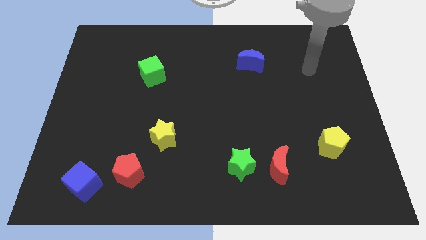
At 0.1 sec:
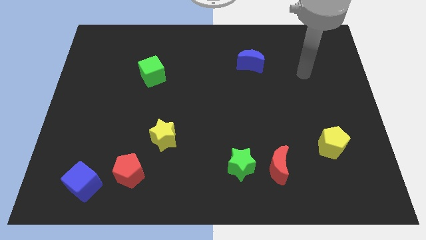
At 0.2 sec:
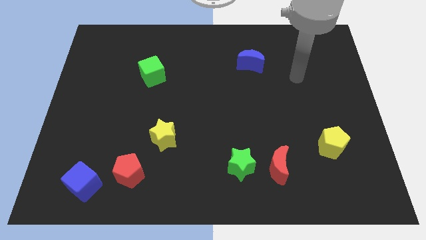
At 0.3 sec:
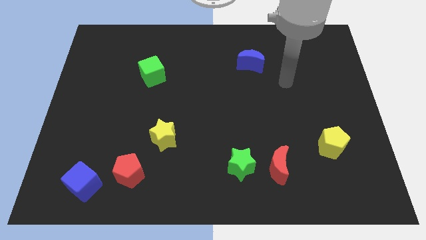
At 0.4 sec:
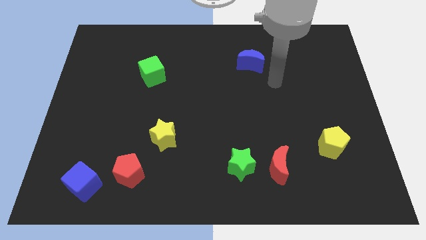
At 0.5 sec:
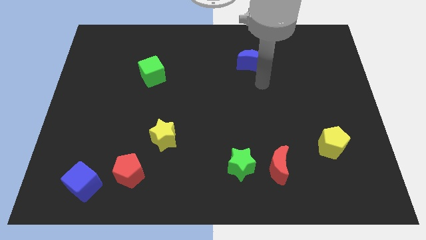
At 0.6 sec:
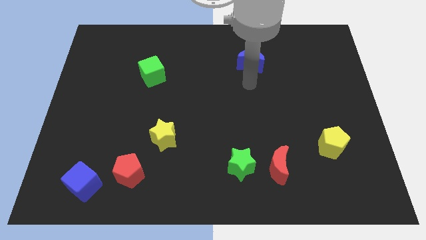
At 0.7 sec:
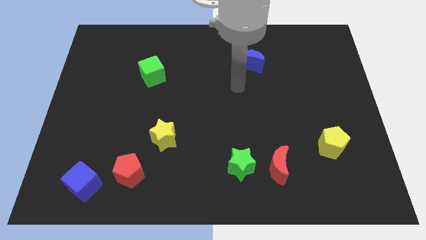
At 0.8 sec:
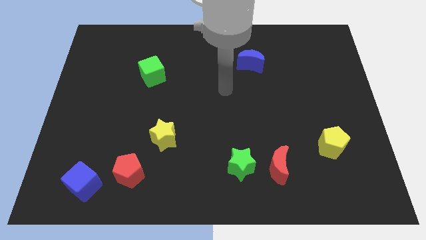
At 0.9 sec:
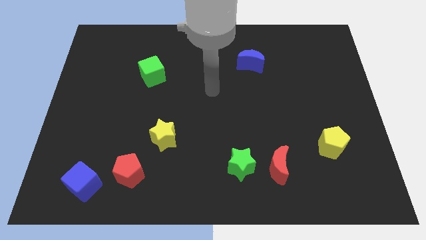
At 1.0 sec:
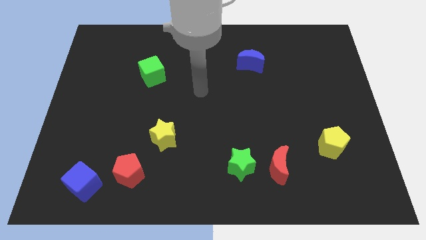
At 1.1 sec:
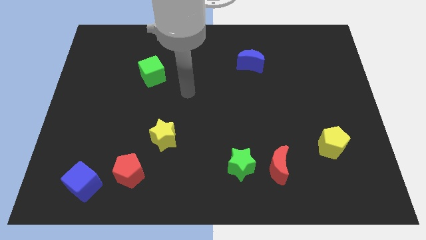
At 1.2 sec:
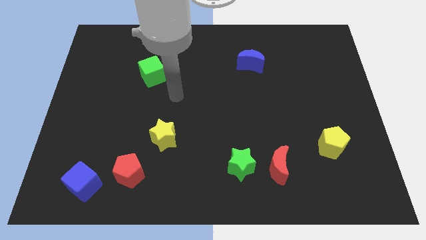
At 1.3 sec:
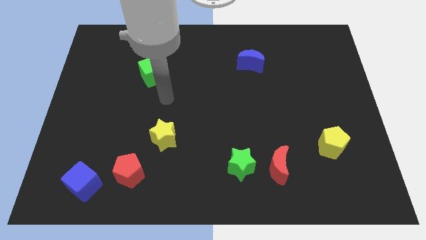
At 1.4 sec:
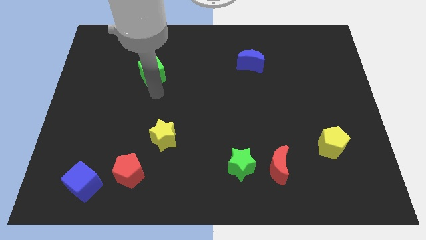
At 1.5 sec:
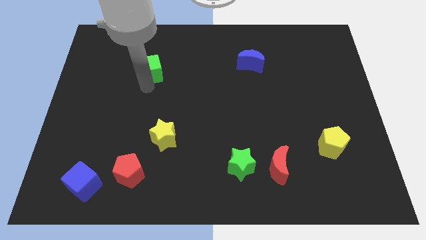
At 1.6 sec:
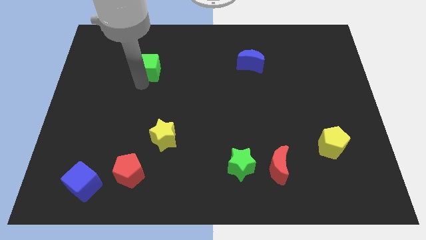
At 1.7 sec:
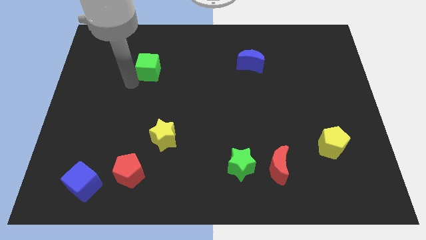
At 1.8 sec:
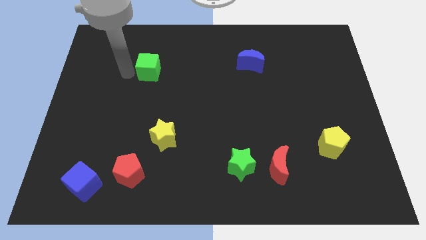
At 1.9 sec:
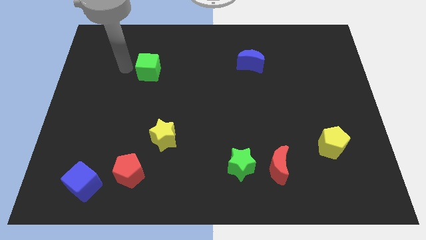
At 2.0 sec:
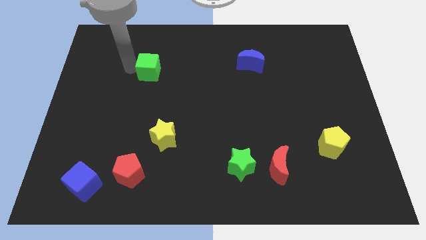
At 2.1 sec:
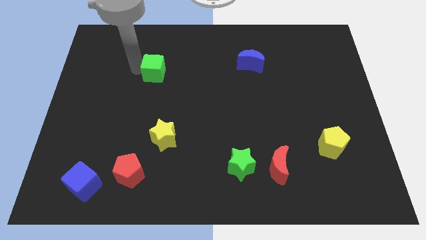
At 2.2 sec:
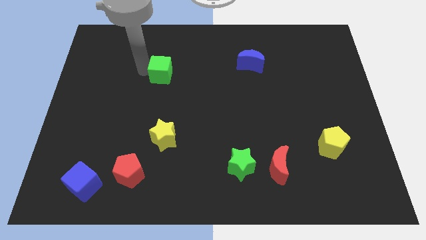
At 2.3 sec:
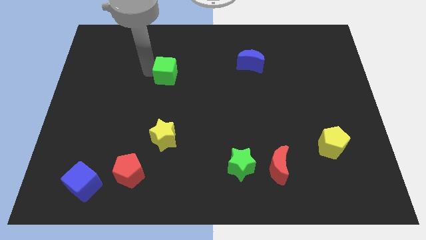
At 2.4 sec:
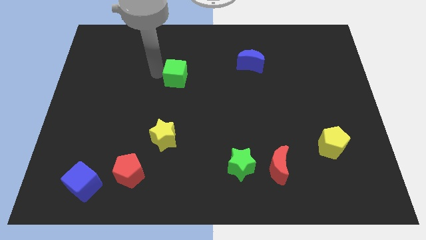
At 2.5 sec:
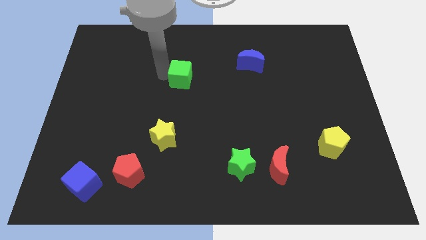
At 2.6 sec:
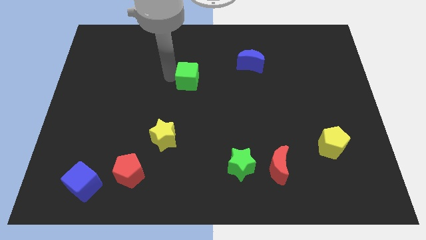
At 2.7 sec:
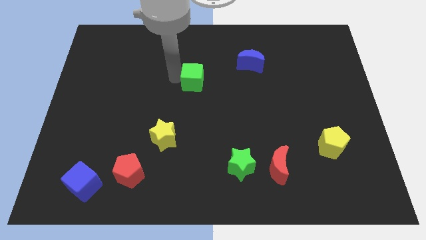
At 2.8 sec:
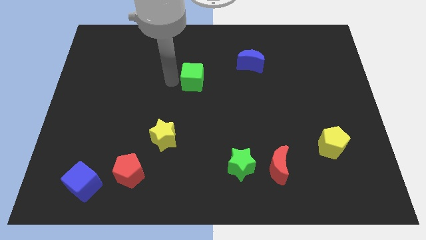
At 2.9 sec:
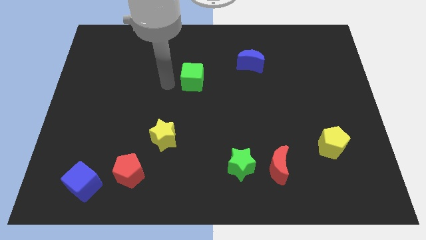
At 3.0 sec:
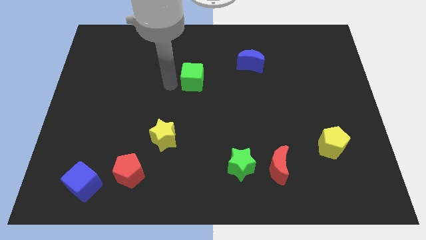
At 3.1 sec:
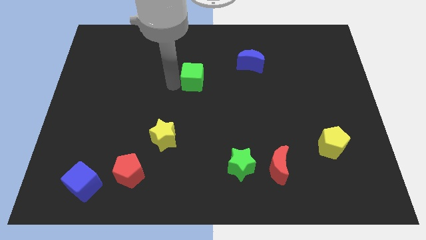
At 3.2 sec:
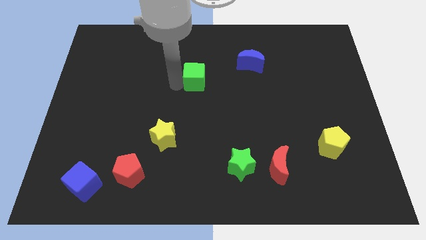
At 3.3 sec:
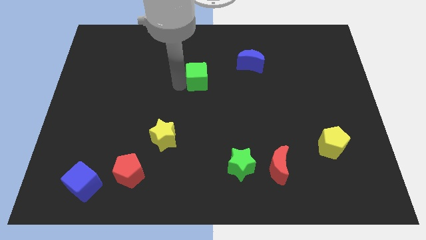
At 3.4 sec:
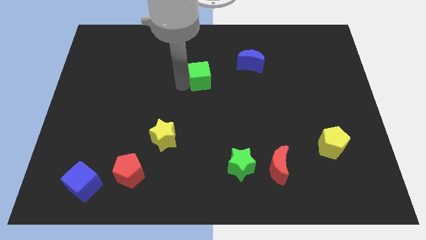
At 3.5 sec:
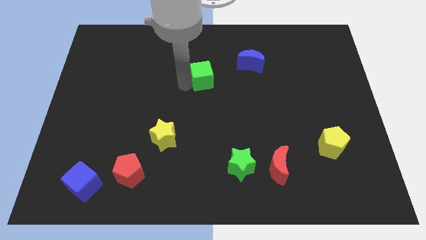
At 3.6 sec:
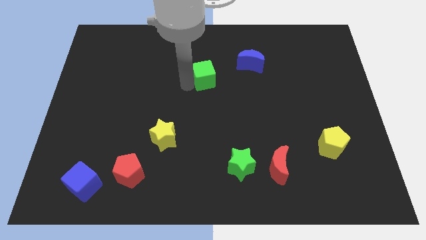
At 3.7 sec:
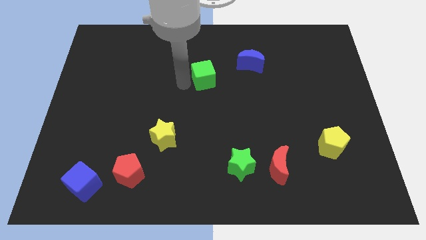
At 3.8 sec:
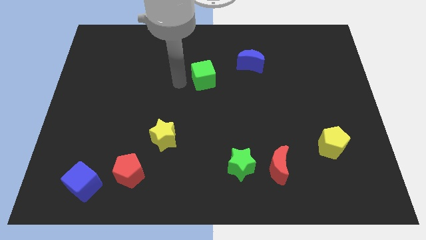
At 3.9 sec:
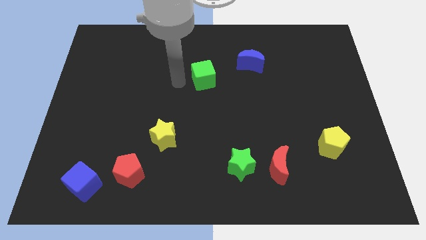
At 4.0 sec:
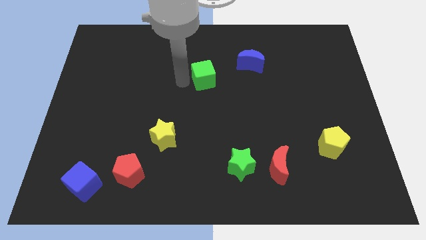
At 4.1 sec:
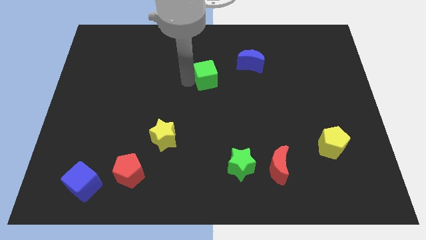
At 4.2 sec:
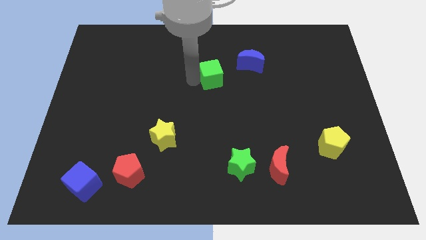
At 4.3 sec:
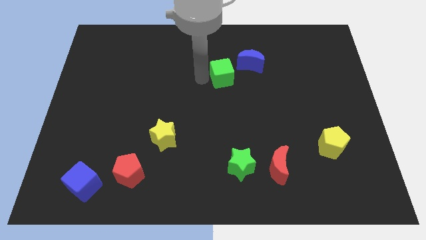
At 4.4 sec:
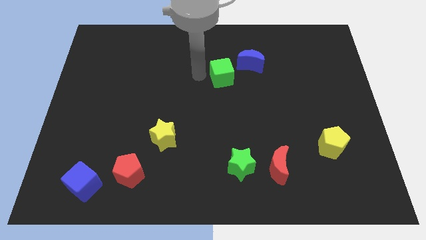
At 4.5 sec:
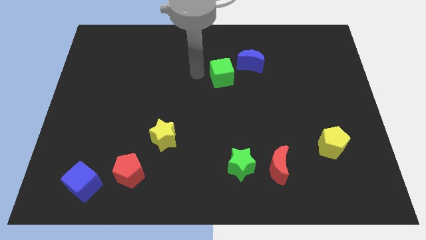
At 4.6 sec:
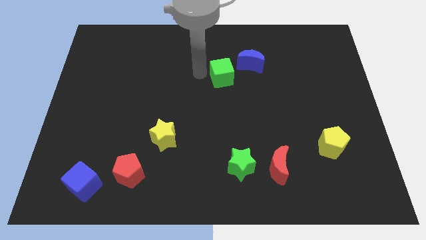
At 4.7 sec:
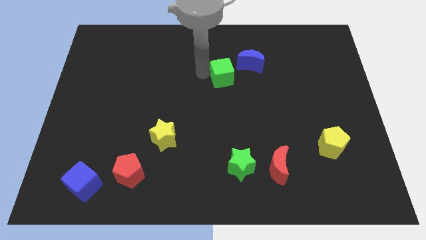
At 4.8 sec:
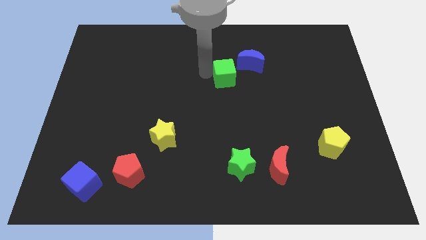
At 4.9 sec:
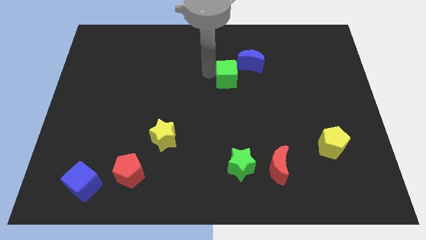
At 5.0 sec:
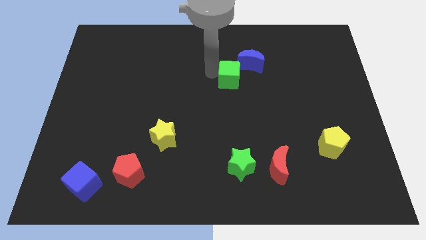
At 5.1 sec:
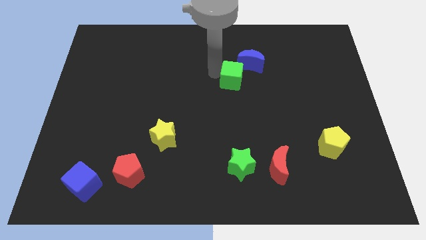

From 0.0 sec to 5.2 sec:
push the green cube right

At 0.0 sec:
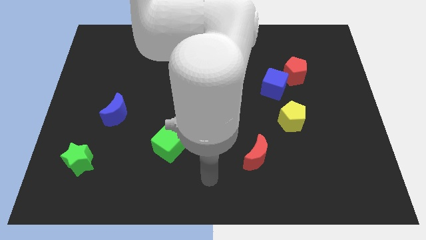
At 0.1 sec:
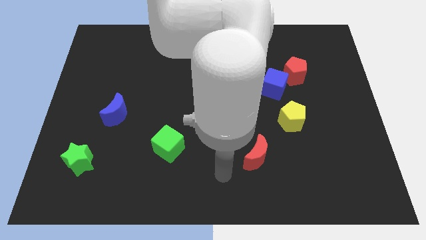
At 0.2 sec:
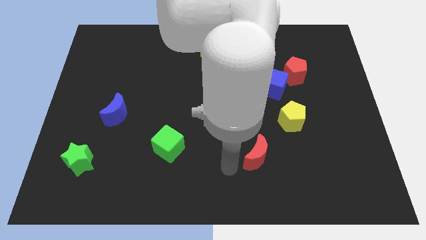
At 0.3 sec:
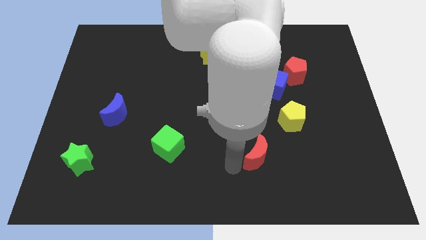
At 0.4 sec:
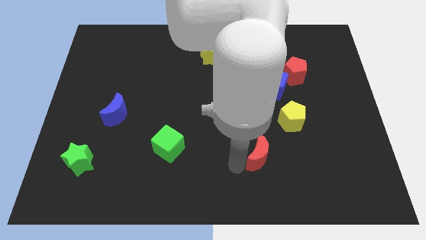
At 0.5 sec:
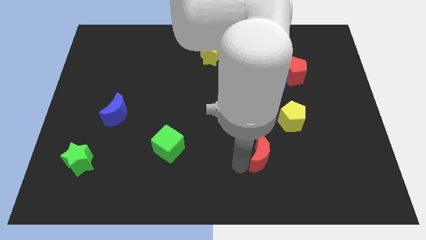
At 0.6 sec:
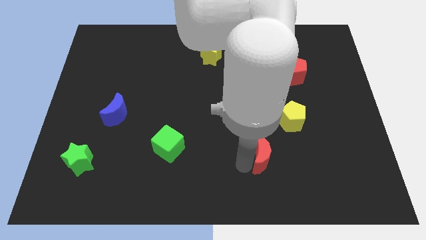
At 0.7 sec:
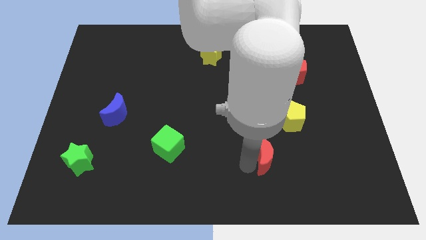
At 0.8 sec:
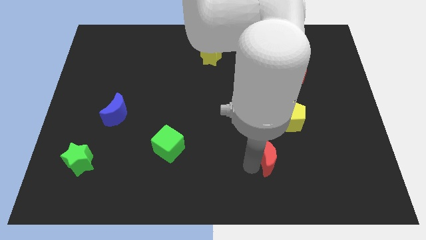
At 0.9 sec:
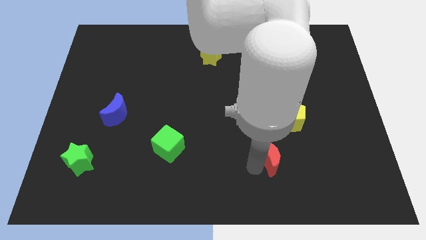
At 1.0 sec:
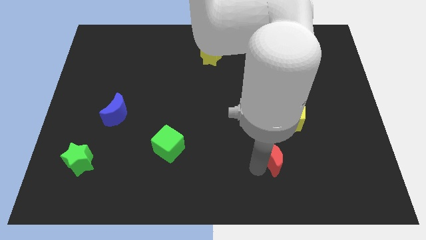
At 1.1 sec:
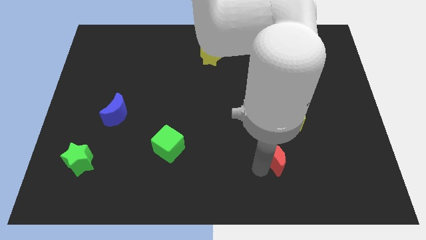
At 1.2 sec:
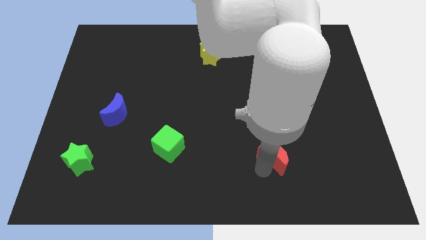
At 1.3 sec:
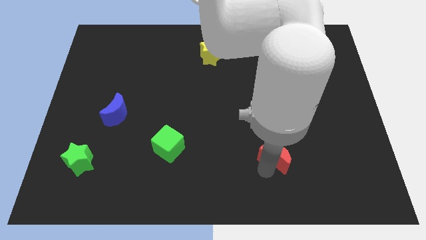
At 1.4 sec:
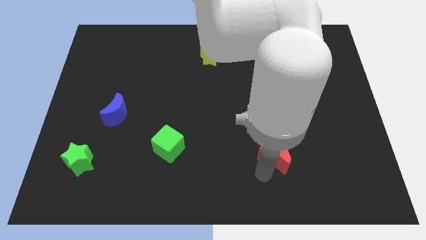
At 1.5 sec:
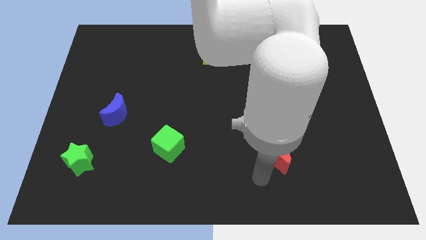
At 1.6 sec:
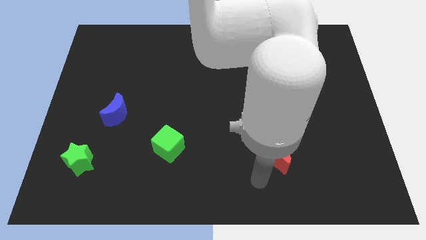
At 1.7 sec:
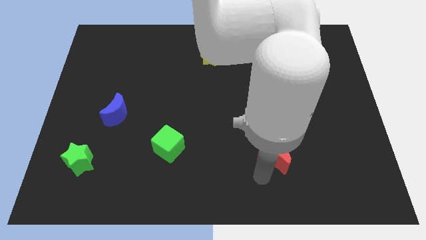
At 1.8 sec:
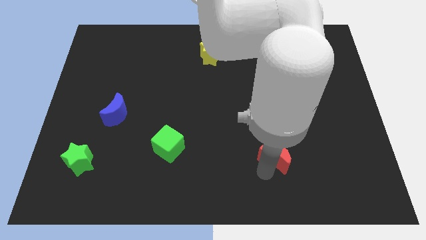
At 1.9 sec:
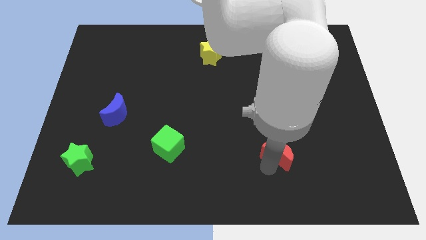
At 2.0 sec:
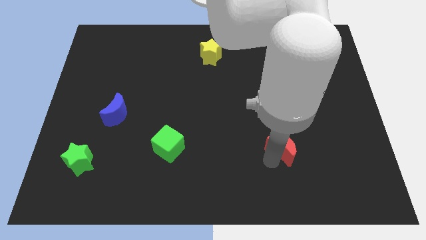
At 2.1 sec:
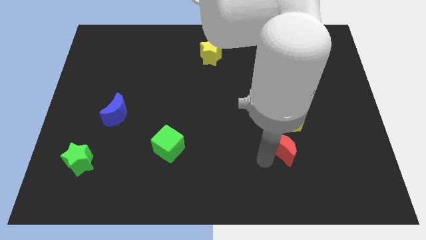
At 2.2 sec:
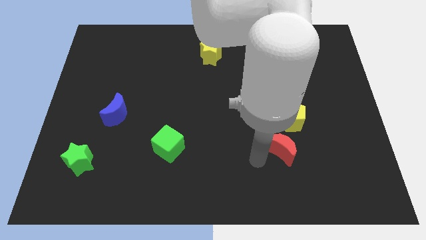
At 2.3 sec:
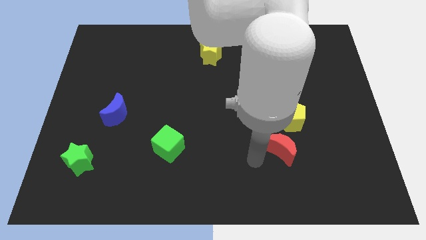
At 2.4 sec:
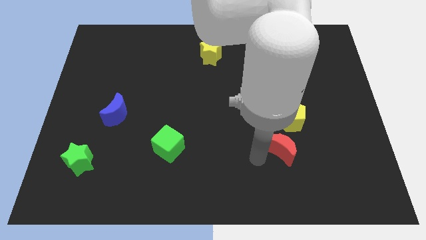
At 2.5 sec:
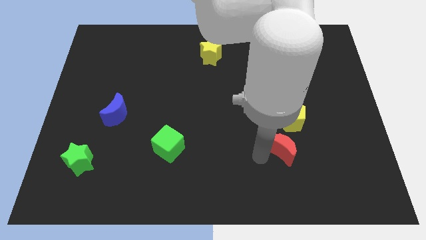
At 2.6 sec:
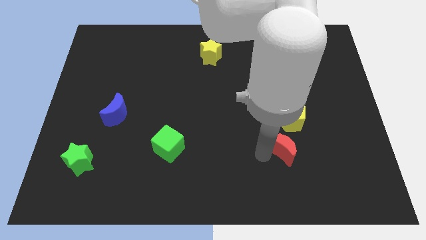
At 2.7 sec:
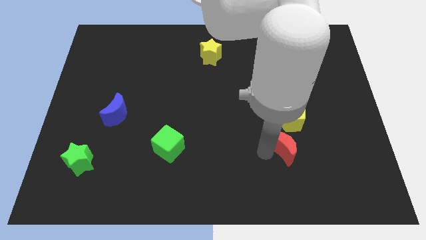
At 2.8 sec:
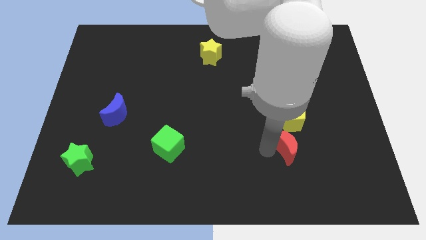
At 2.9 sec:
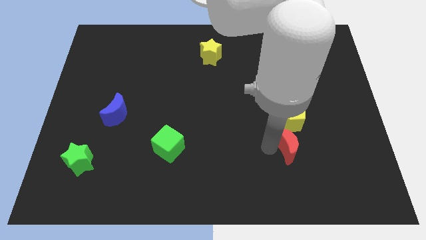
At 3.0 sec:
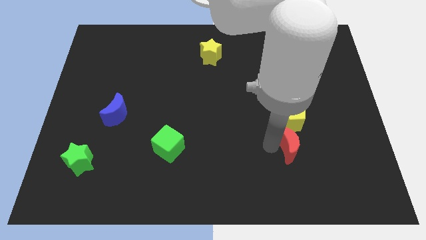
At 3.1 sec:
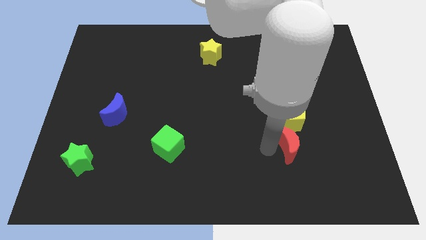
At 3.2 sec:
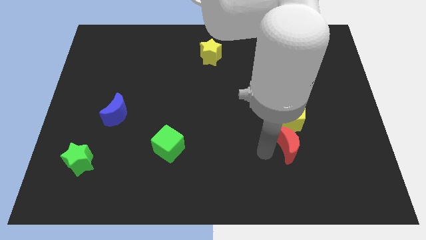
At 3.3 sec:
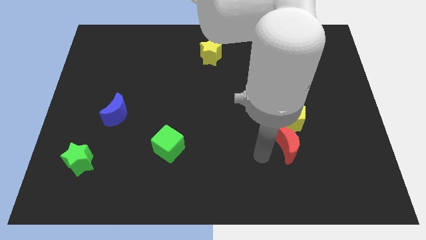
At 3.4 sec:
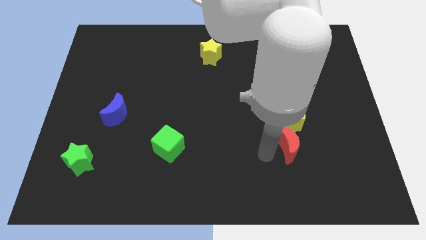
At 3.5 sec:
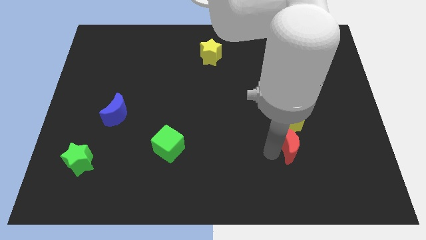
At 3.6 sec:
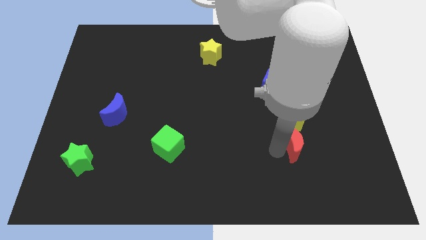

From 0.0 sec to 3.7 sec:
push the red moon slightly up and right diagonally
